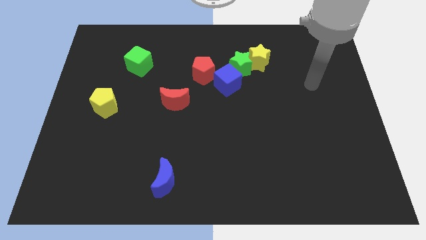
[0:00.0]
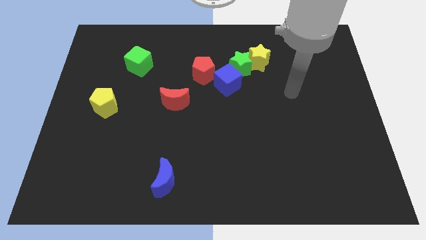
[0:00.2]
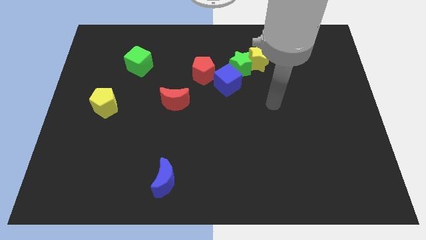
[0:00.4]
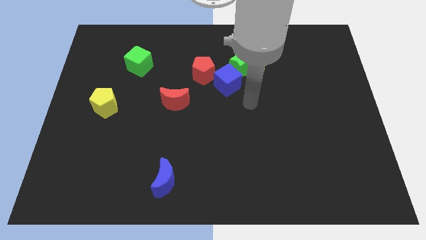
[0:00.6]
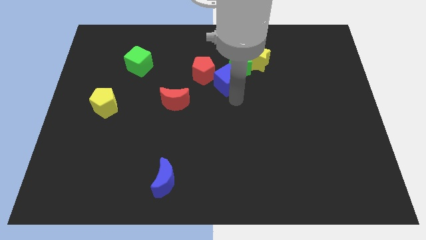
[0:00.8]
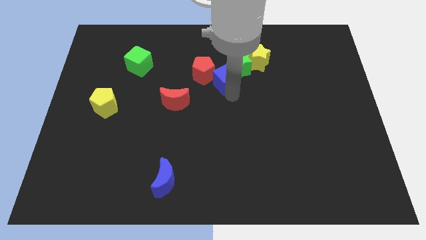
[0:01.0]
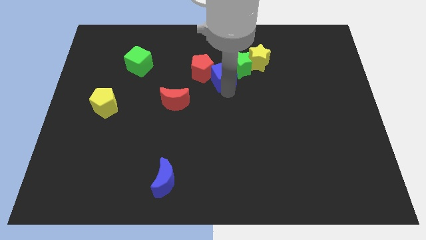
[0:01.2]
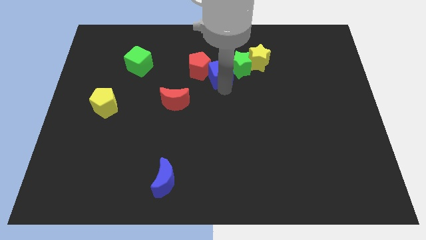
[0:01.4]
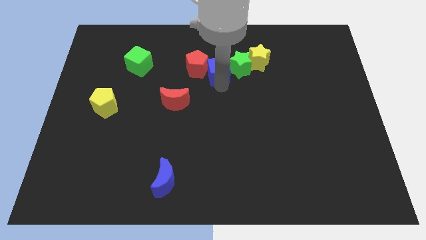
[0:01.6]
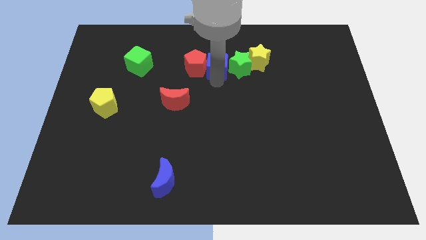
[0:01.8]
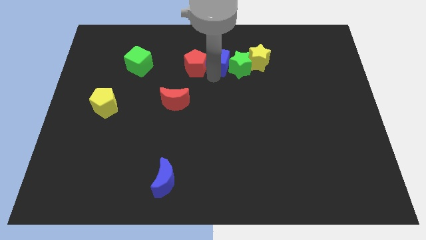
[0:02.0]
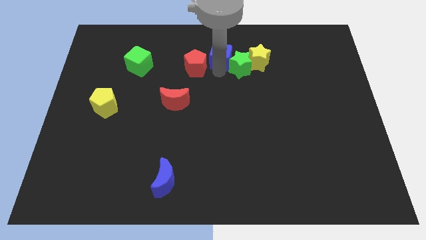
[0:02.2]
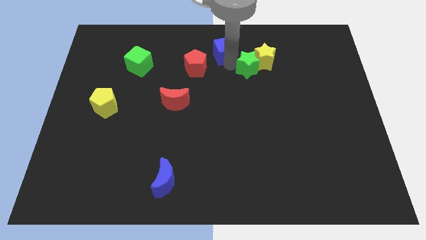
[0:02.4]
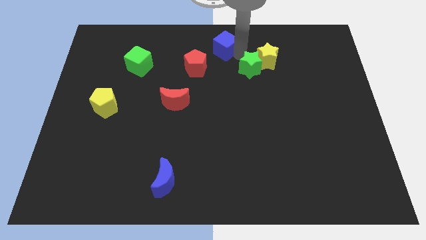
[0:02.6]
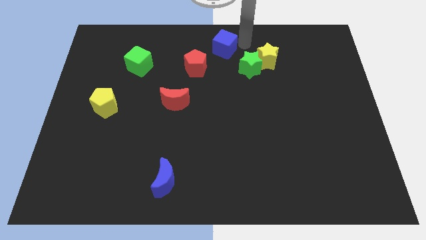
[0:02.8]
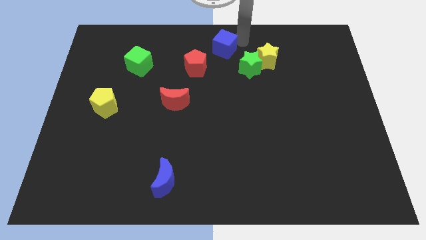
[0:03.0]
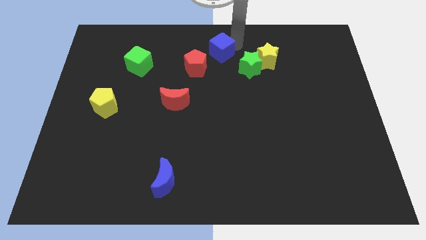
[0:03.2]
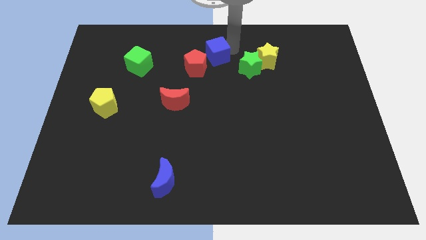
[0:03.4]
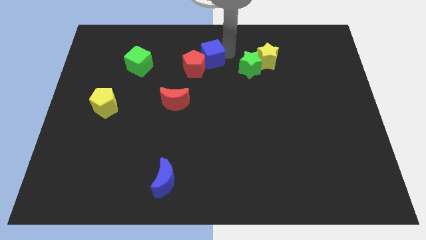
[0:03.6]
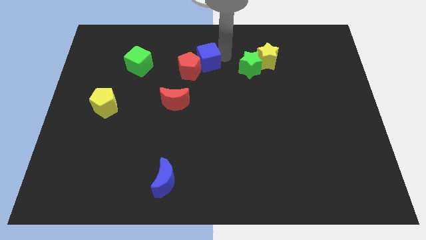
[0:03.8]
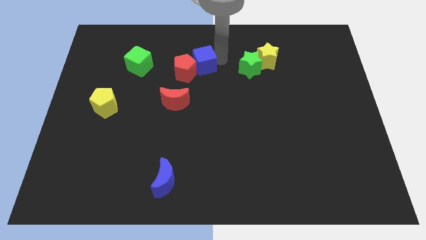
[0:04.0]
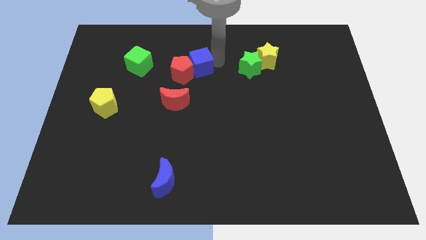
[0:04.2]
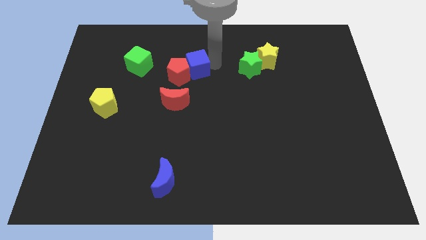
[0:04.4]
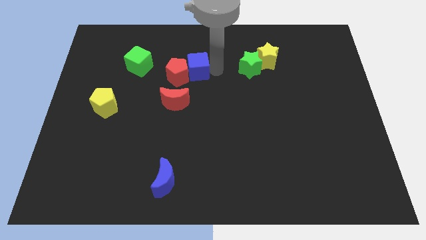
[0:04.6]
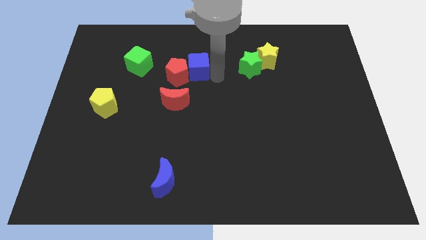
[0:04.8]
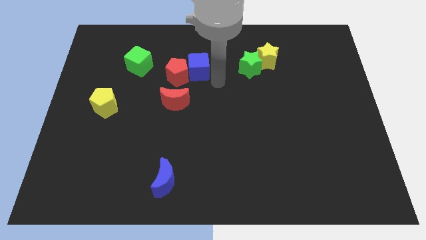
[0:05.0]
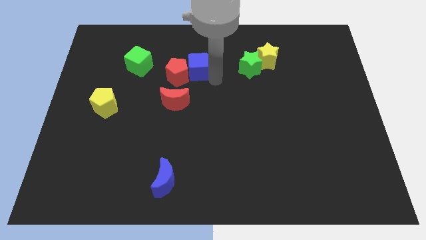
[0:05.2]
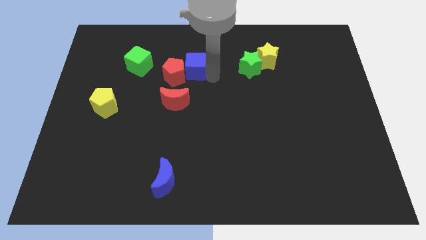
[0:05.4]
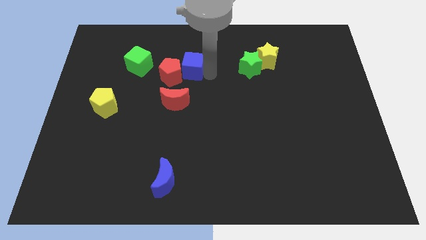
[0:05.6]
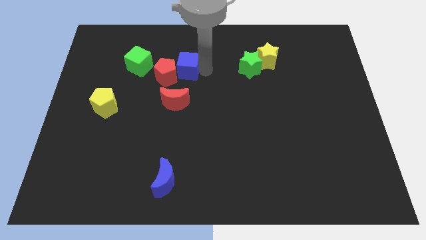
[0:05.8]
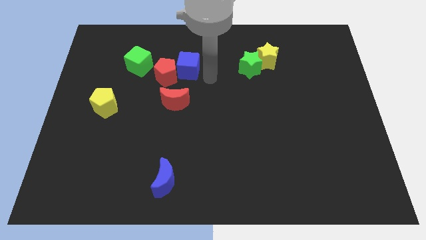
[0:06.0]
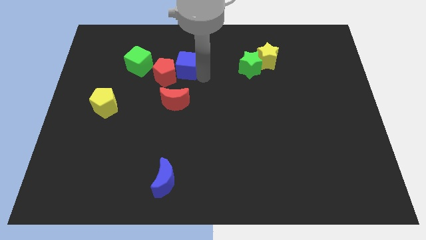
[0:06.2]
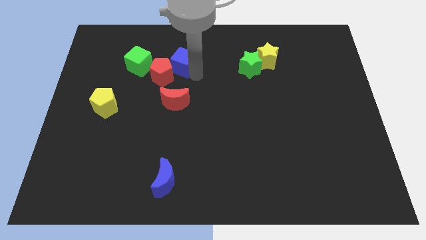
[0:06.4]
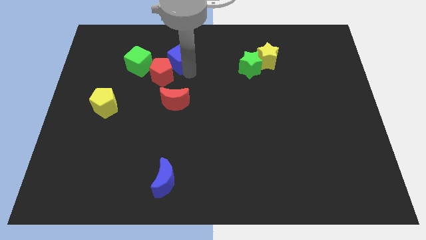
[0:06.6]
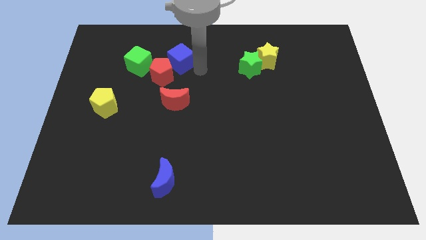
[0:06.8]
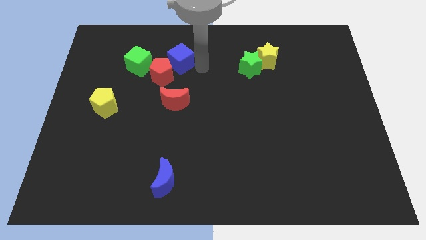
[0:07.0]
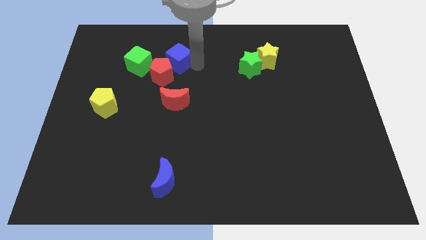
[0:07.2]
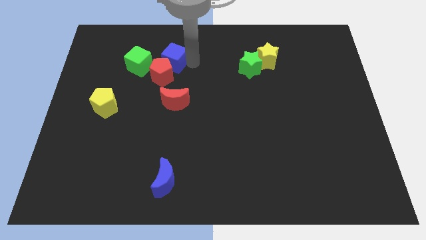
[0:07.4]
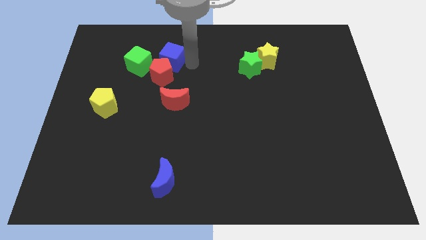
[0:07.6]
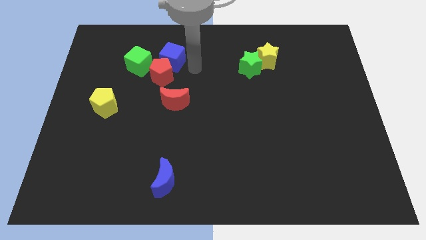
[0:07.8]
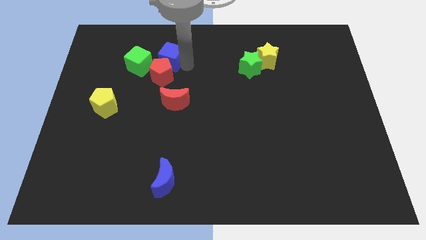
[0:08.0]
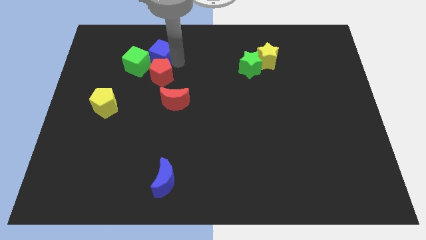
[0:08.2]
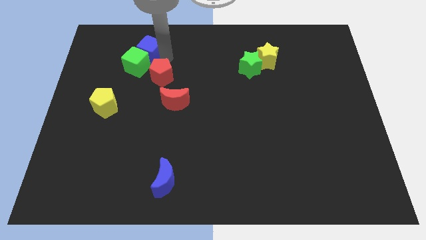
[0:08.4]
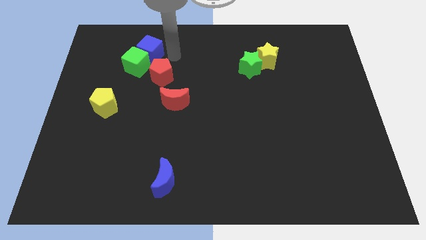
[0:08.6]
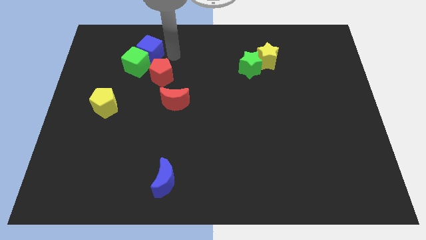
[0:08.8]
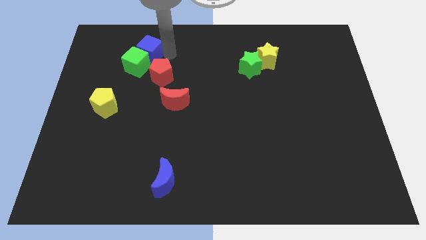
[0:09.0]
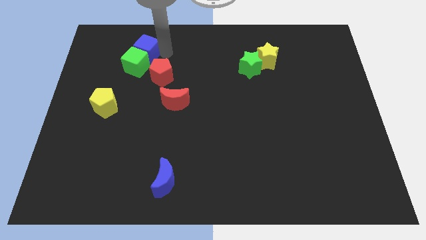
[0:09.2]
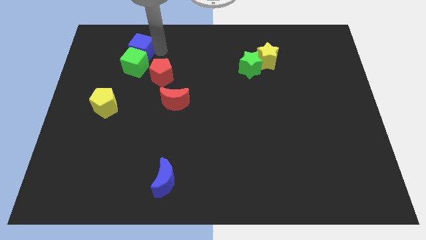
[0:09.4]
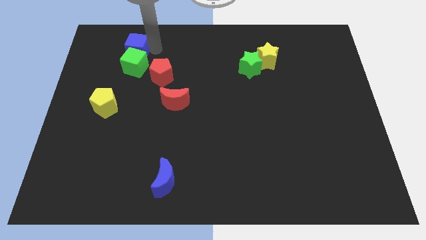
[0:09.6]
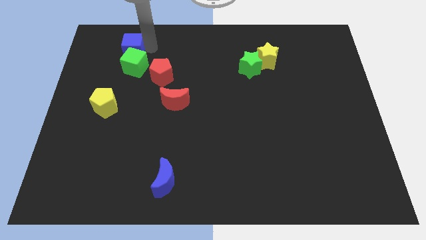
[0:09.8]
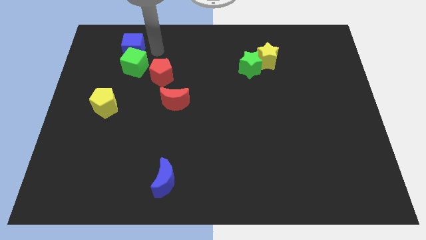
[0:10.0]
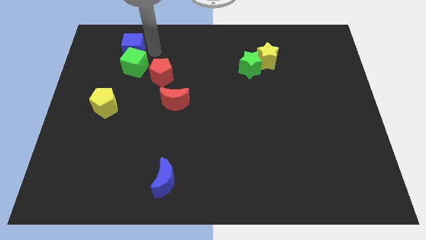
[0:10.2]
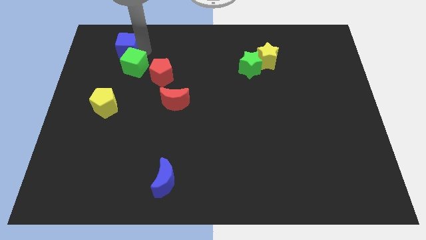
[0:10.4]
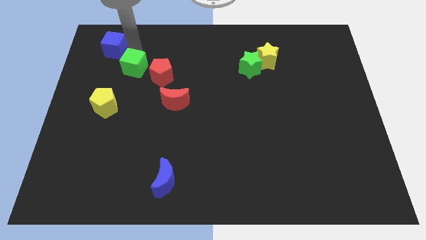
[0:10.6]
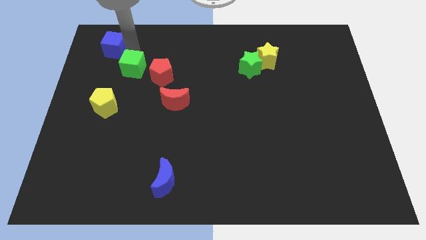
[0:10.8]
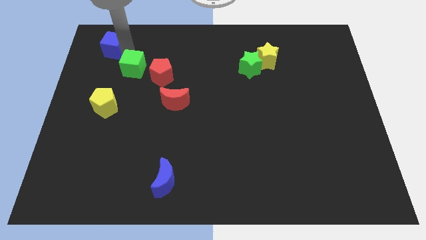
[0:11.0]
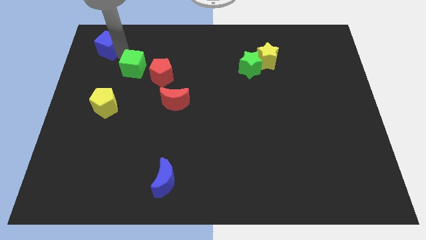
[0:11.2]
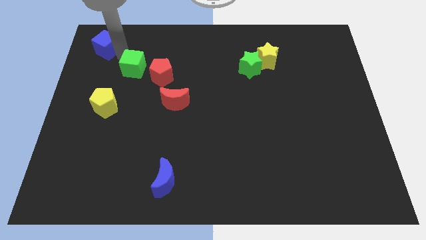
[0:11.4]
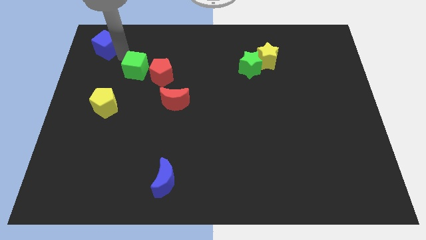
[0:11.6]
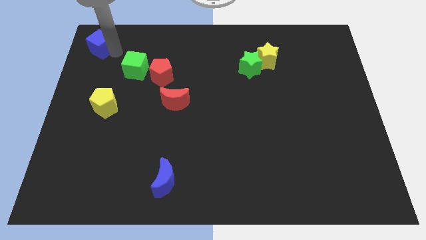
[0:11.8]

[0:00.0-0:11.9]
push the blue cube to the upper left corner

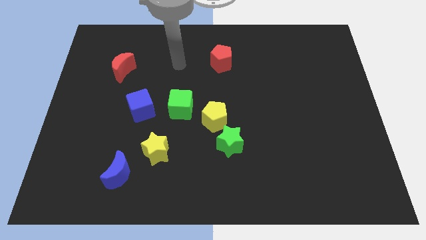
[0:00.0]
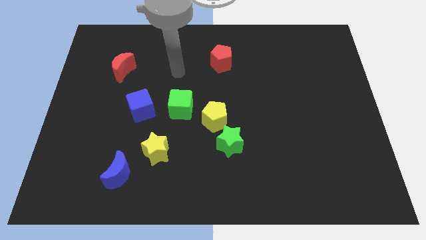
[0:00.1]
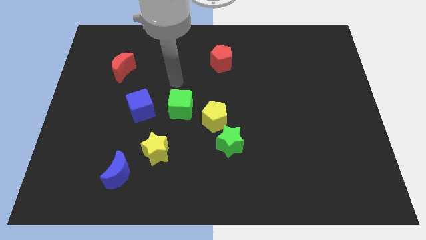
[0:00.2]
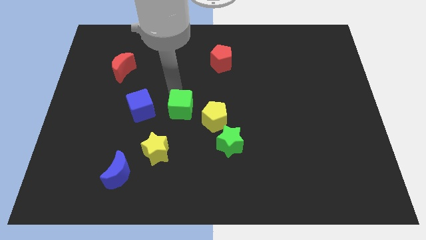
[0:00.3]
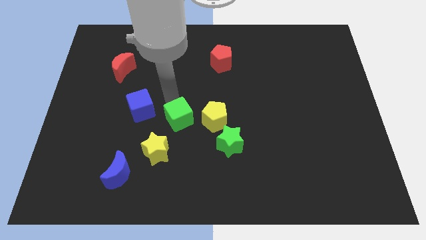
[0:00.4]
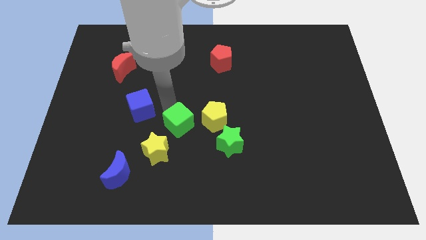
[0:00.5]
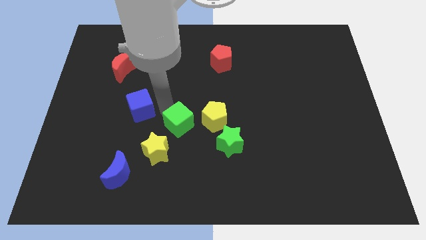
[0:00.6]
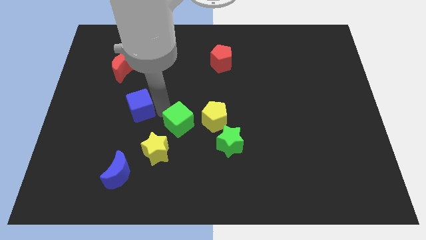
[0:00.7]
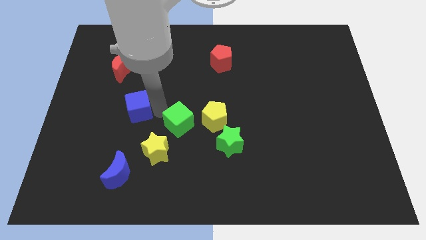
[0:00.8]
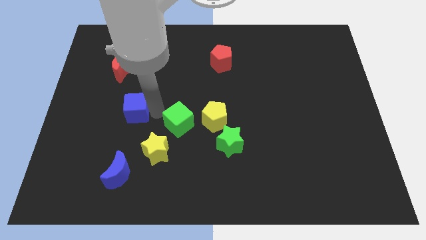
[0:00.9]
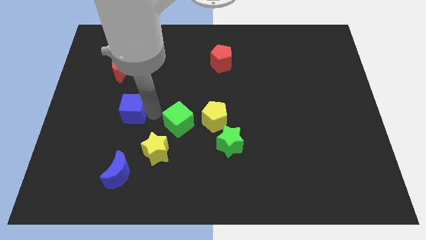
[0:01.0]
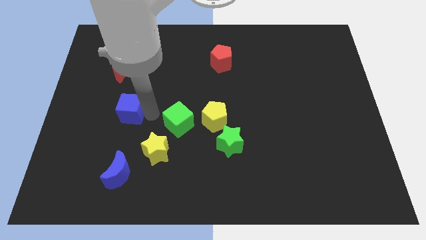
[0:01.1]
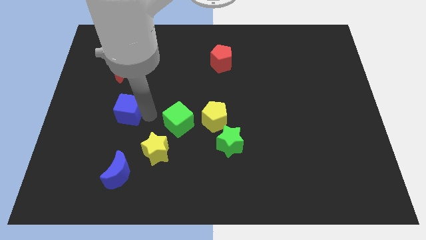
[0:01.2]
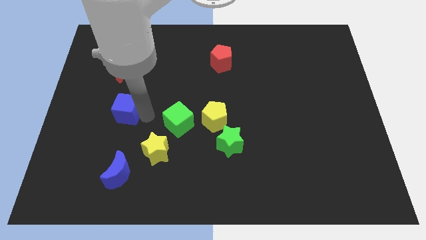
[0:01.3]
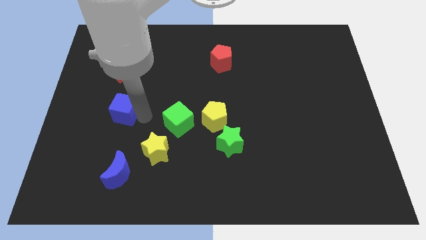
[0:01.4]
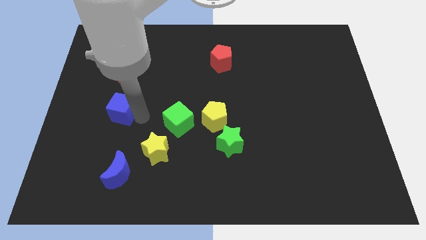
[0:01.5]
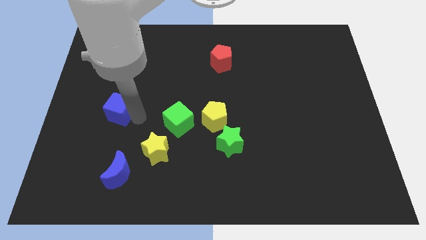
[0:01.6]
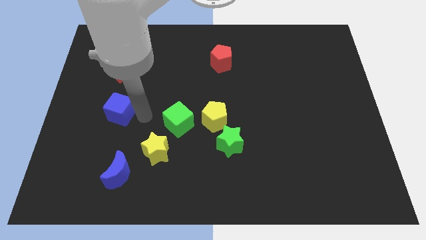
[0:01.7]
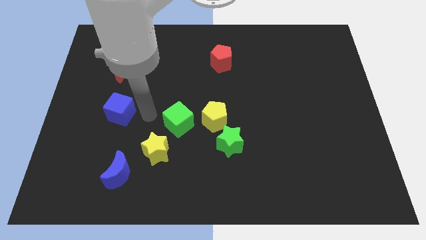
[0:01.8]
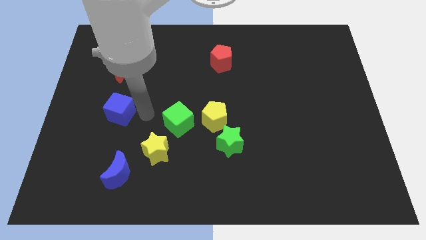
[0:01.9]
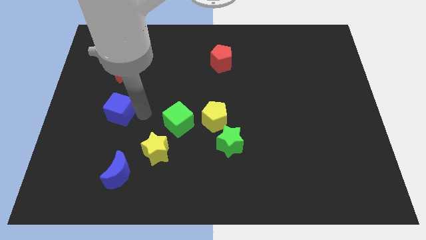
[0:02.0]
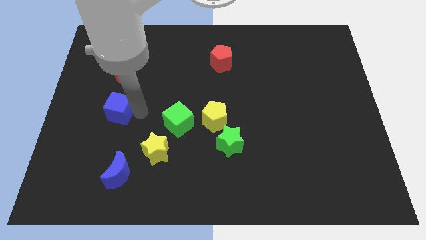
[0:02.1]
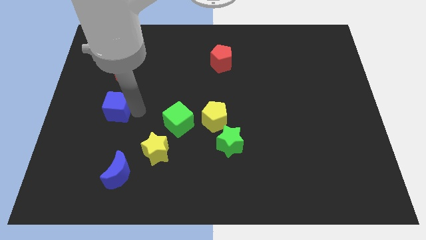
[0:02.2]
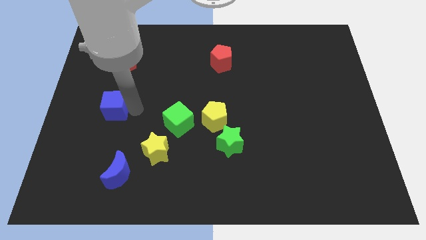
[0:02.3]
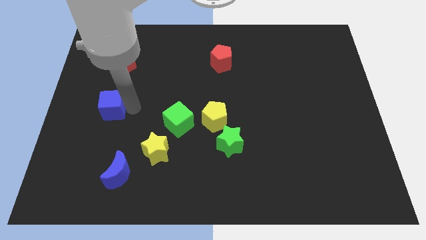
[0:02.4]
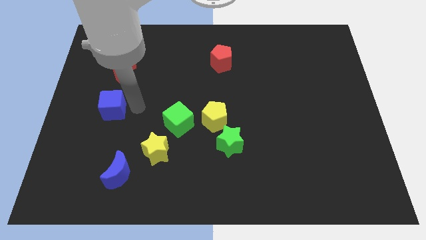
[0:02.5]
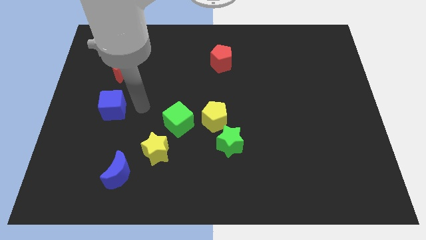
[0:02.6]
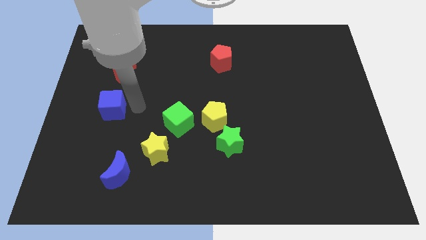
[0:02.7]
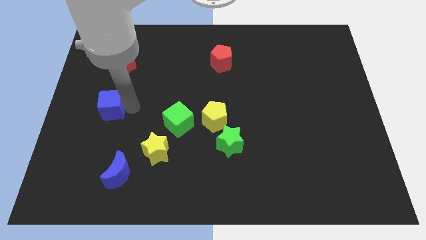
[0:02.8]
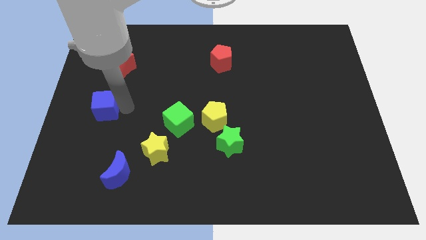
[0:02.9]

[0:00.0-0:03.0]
slide the blue cube to the left side
